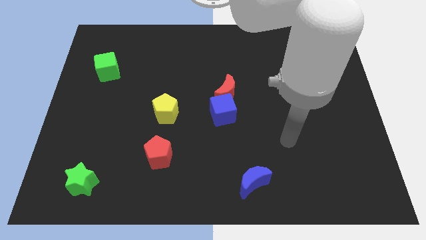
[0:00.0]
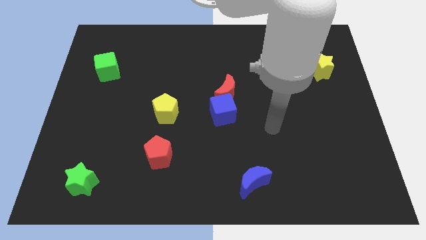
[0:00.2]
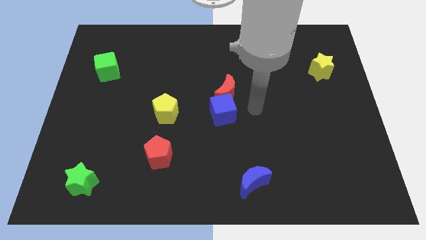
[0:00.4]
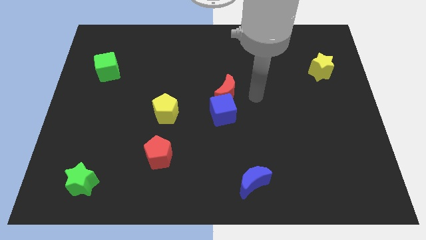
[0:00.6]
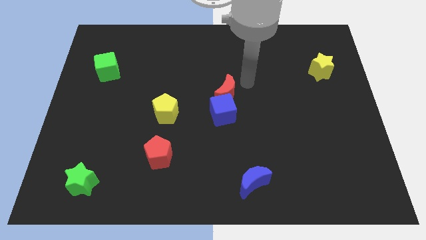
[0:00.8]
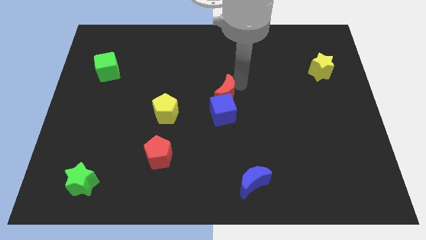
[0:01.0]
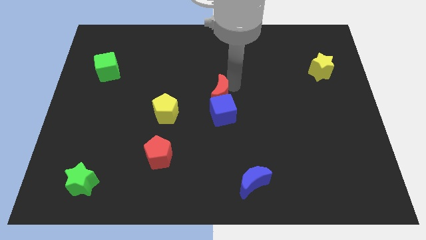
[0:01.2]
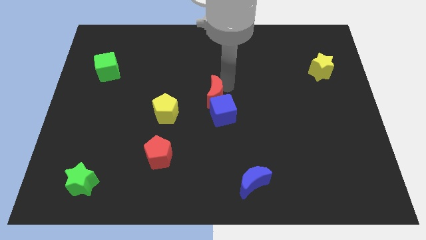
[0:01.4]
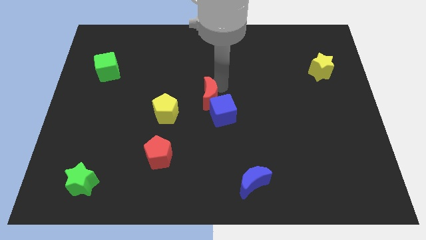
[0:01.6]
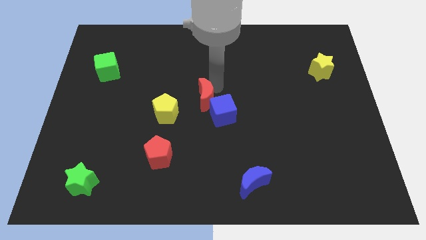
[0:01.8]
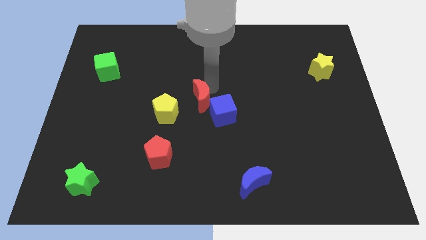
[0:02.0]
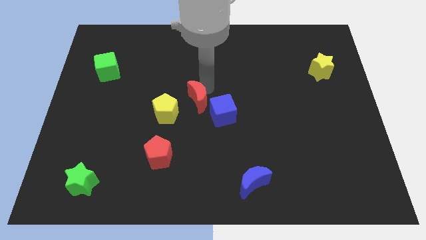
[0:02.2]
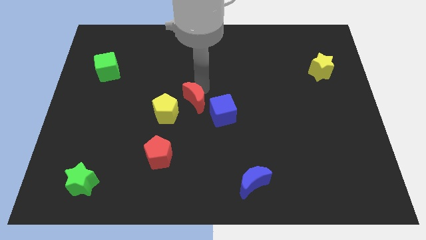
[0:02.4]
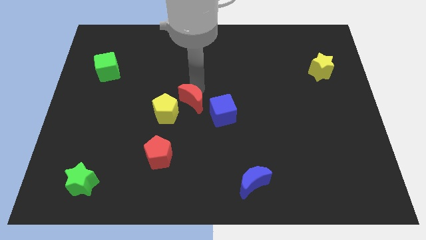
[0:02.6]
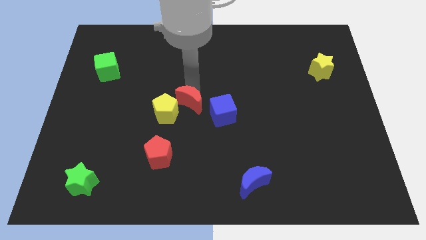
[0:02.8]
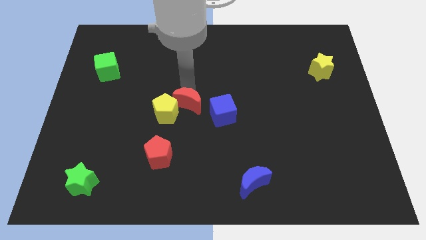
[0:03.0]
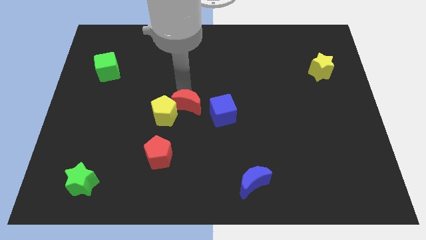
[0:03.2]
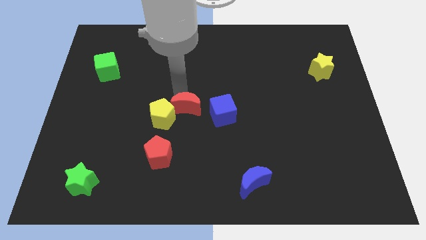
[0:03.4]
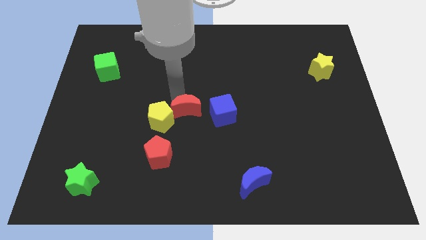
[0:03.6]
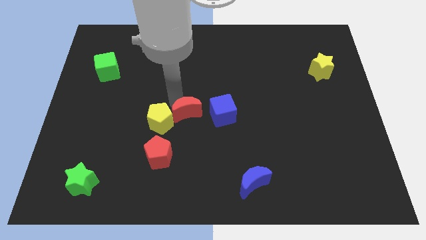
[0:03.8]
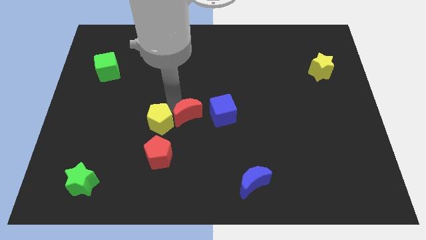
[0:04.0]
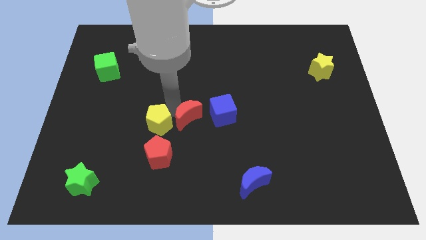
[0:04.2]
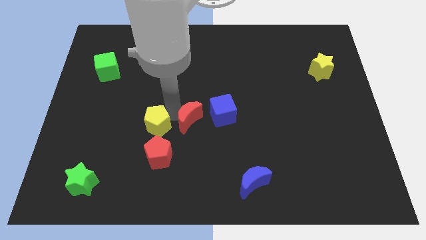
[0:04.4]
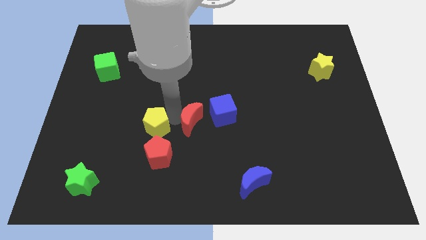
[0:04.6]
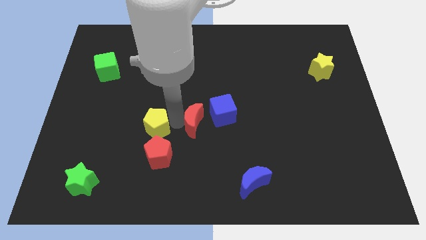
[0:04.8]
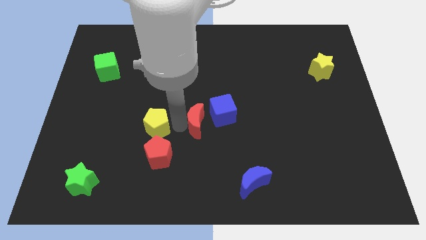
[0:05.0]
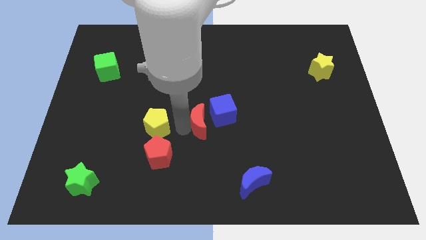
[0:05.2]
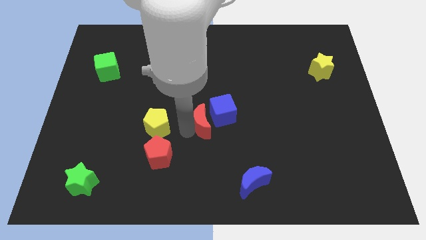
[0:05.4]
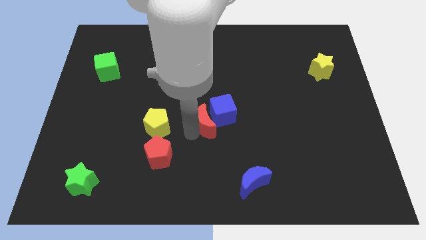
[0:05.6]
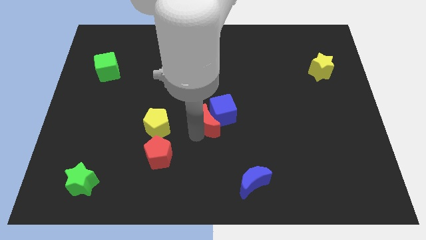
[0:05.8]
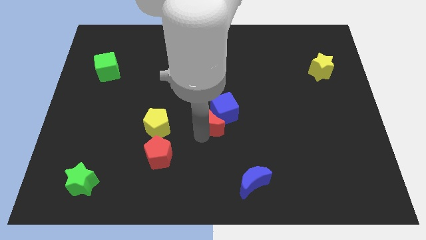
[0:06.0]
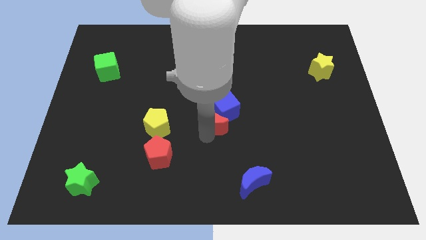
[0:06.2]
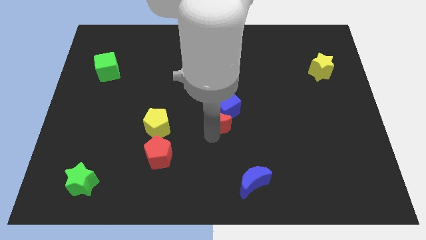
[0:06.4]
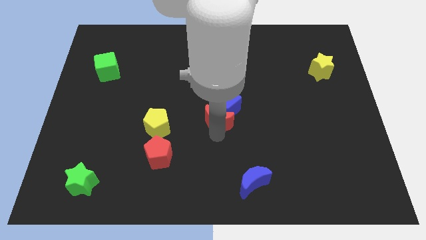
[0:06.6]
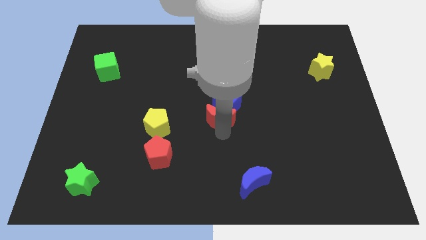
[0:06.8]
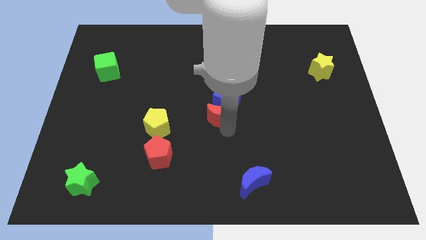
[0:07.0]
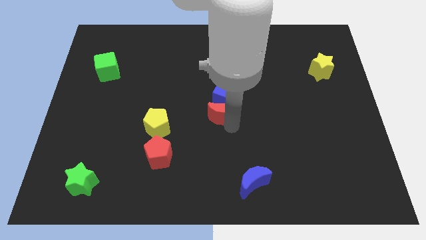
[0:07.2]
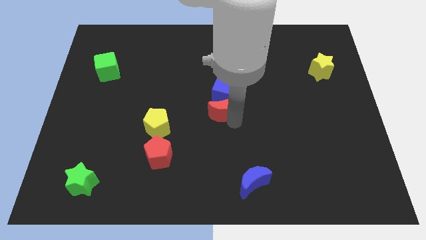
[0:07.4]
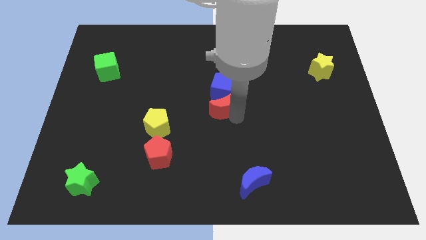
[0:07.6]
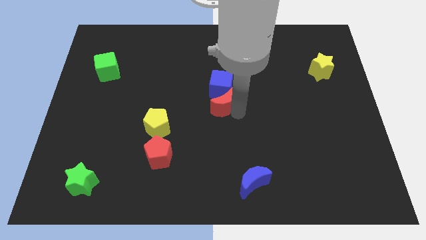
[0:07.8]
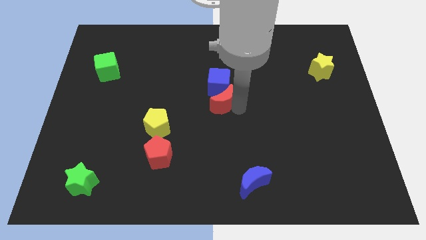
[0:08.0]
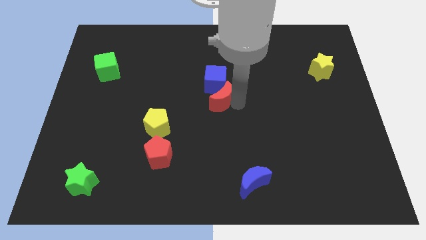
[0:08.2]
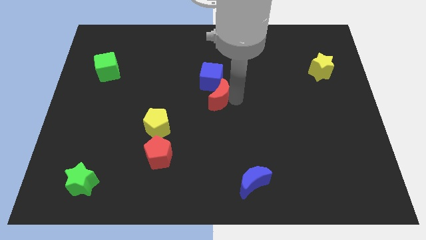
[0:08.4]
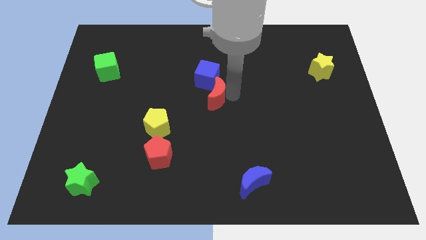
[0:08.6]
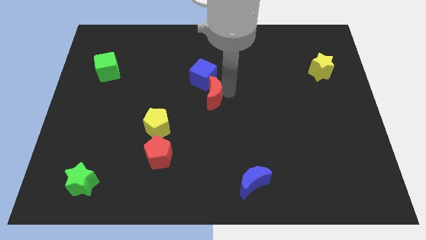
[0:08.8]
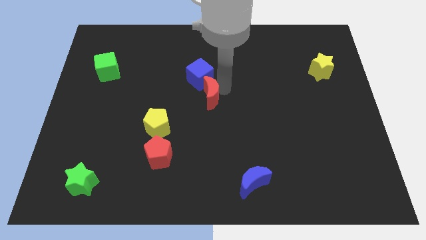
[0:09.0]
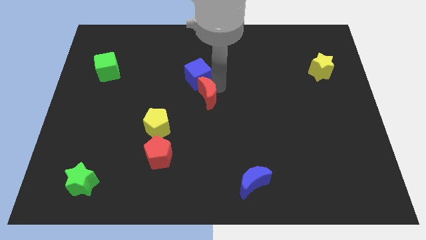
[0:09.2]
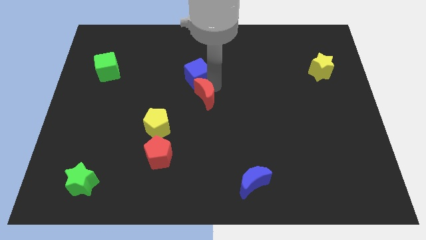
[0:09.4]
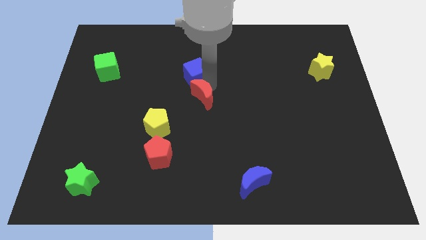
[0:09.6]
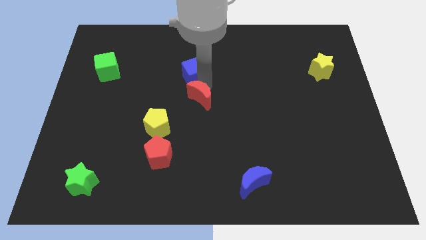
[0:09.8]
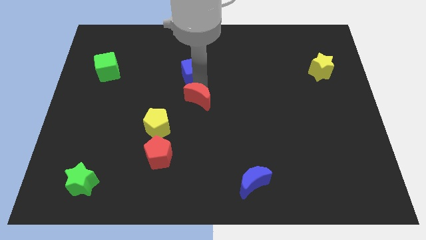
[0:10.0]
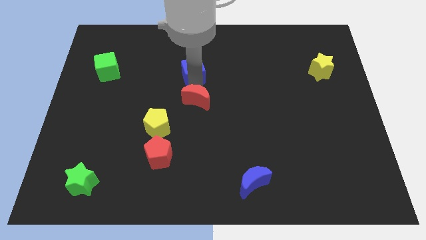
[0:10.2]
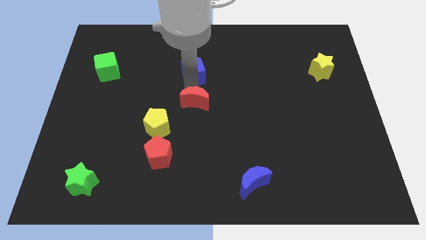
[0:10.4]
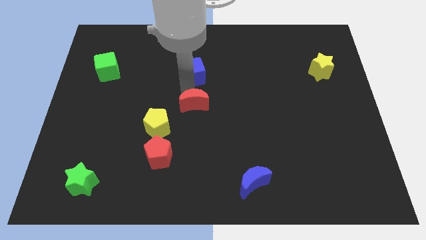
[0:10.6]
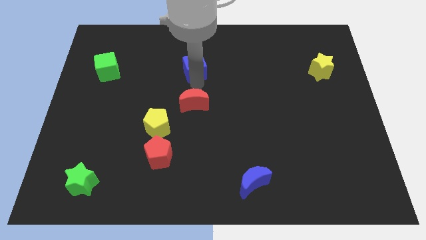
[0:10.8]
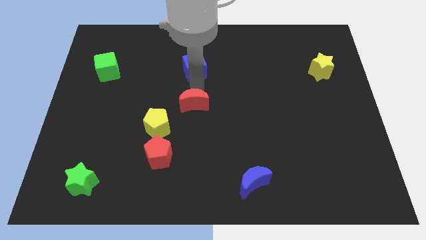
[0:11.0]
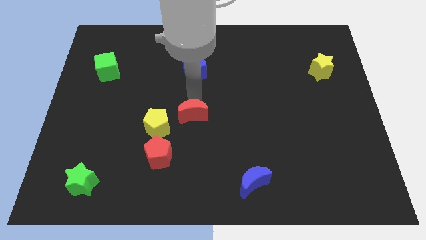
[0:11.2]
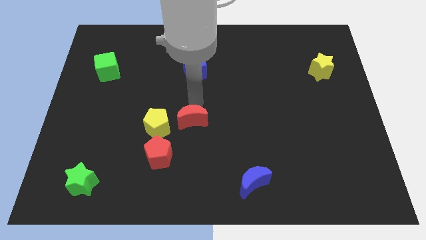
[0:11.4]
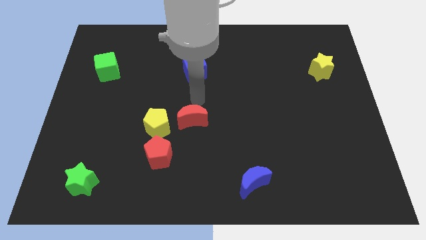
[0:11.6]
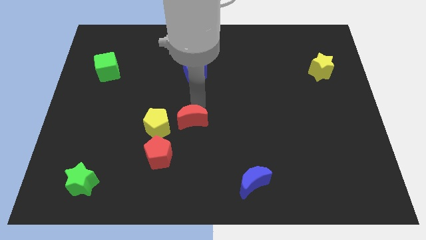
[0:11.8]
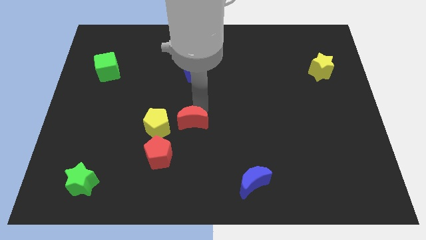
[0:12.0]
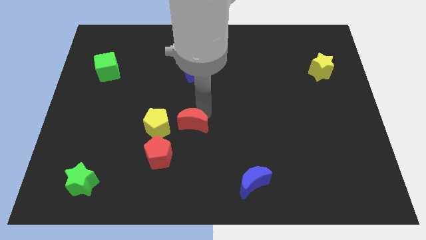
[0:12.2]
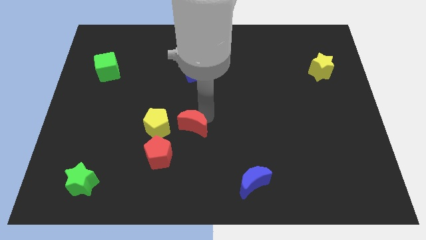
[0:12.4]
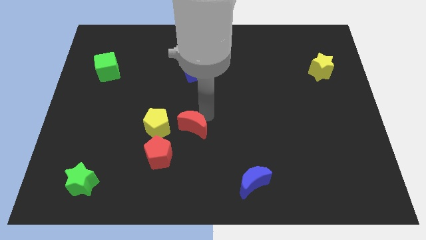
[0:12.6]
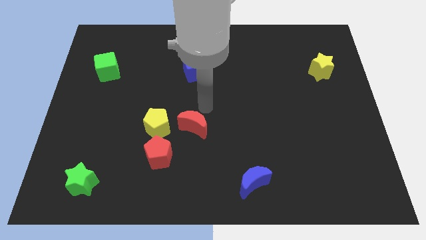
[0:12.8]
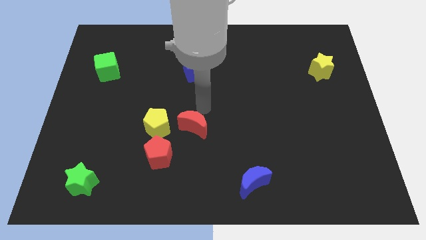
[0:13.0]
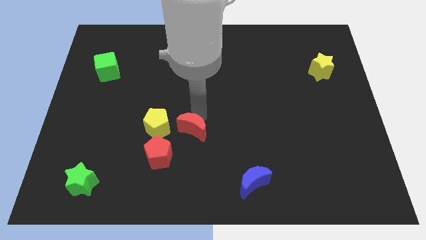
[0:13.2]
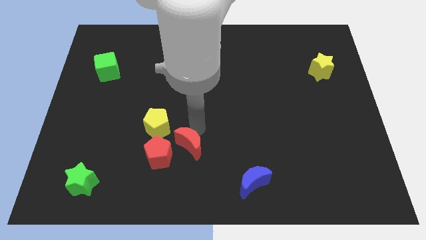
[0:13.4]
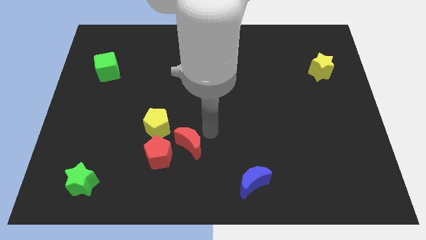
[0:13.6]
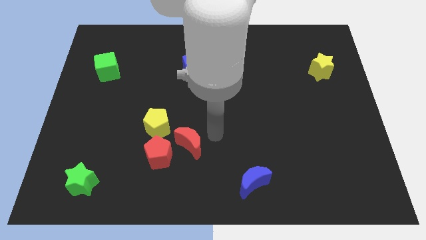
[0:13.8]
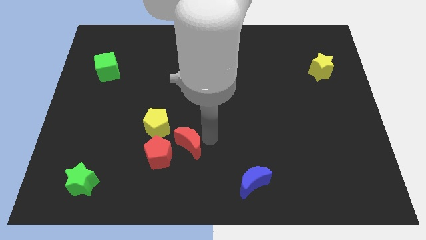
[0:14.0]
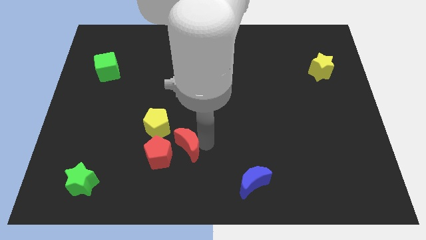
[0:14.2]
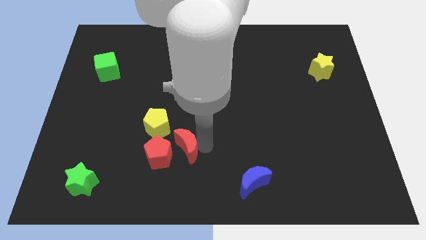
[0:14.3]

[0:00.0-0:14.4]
move the red moon to the red pentagon

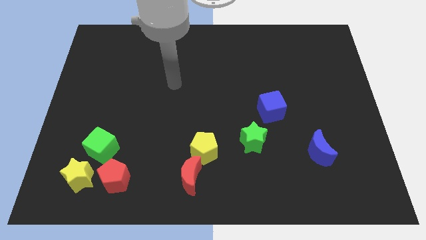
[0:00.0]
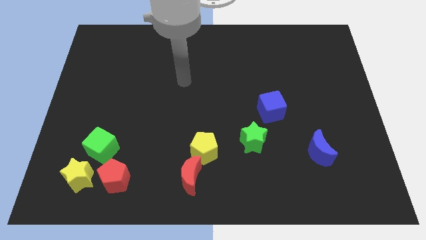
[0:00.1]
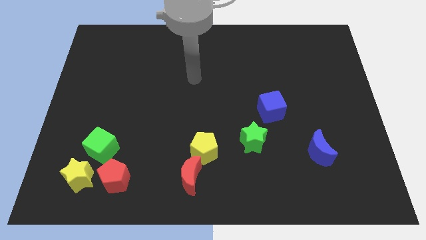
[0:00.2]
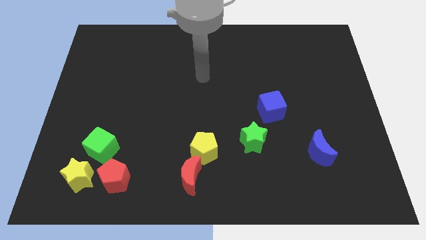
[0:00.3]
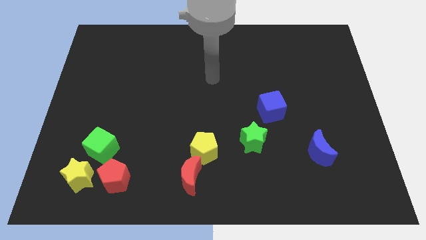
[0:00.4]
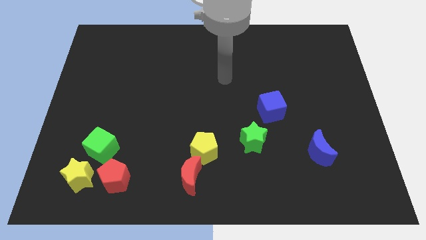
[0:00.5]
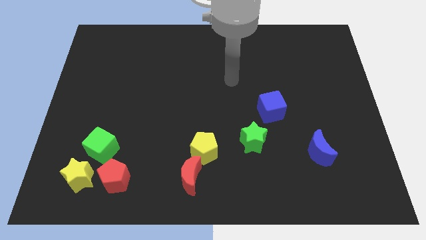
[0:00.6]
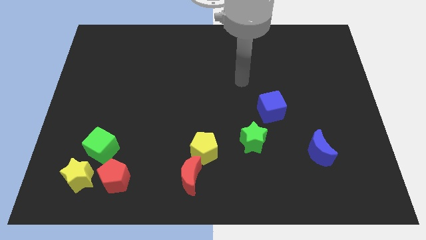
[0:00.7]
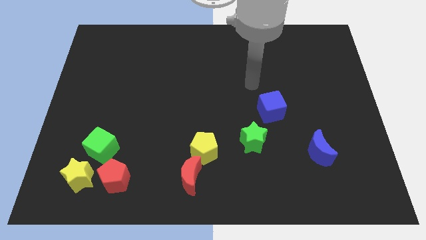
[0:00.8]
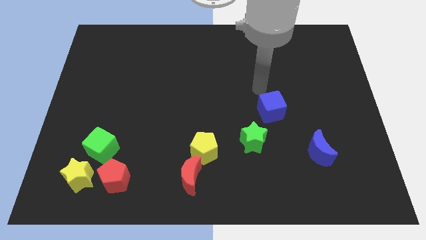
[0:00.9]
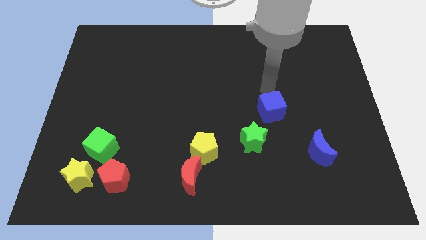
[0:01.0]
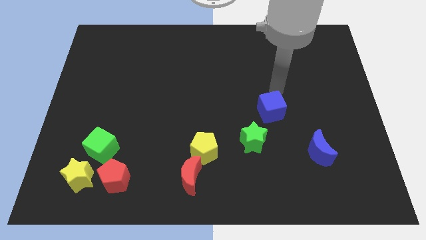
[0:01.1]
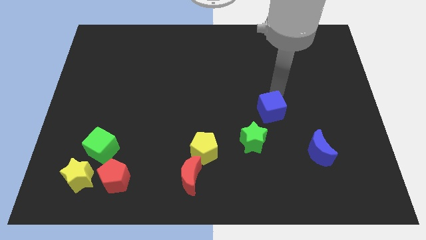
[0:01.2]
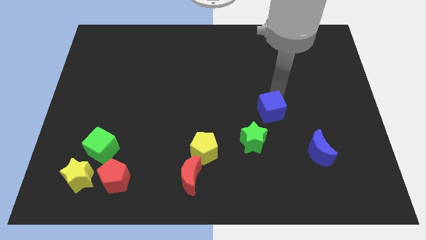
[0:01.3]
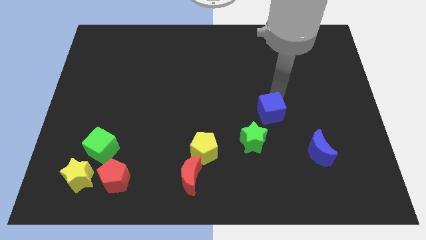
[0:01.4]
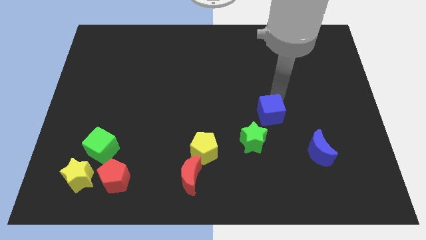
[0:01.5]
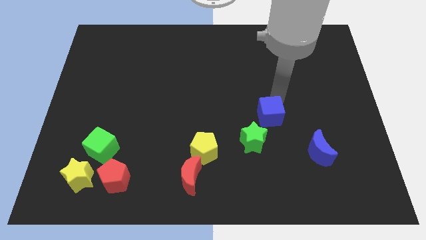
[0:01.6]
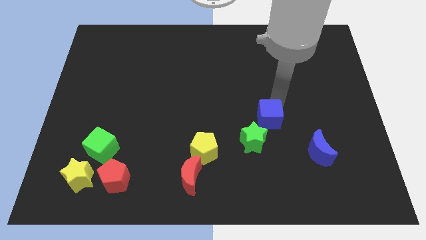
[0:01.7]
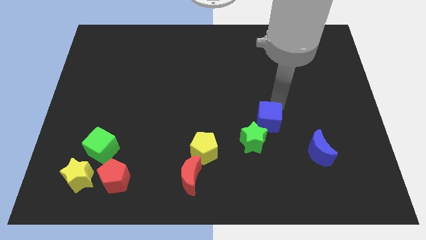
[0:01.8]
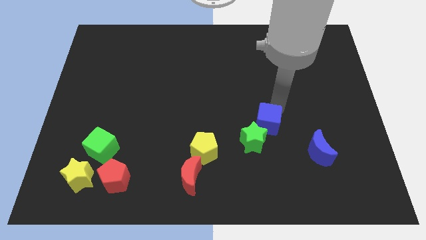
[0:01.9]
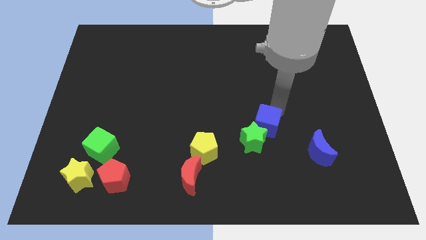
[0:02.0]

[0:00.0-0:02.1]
push the blue cube to the green star
